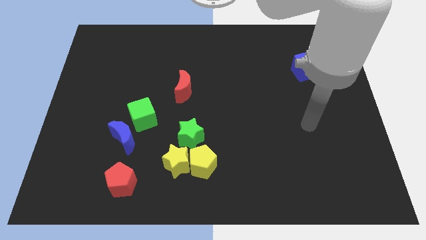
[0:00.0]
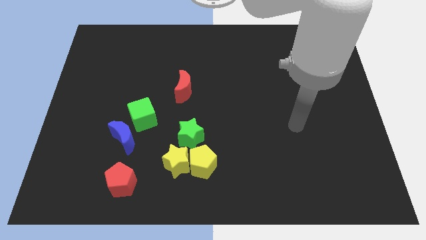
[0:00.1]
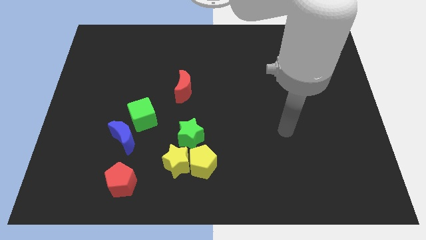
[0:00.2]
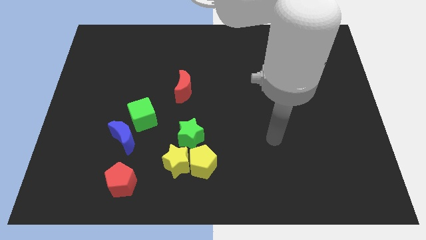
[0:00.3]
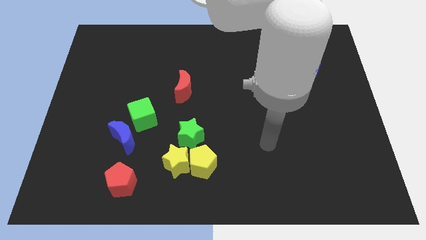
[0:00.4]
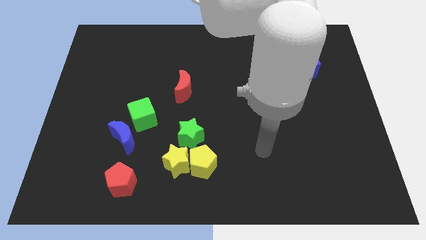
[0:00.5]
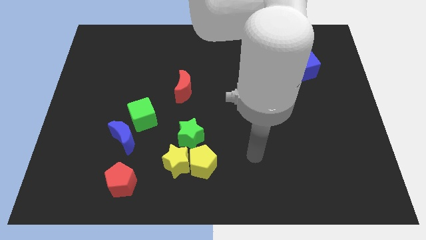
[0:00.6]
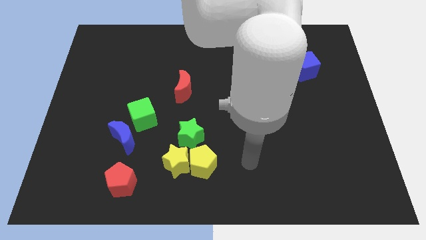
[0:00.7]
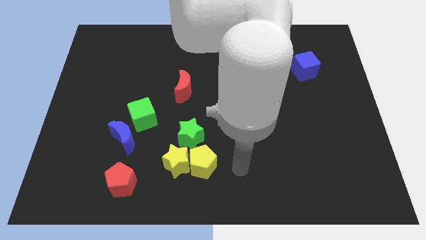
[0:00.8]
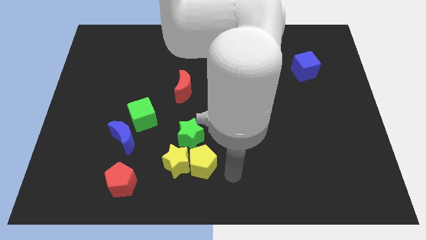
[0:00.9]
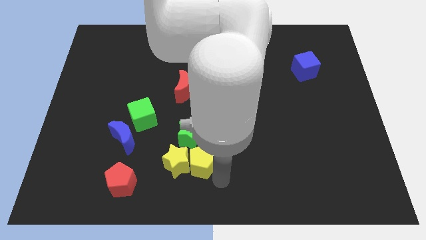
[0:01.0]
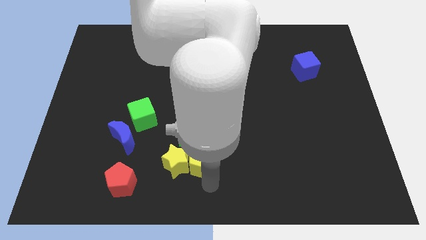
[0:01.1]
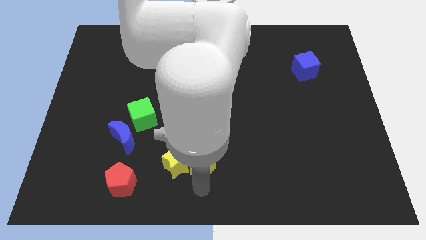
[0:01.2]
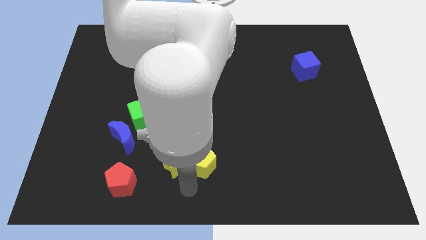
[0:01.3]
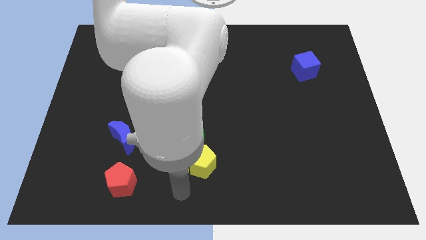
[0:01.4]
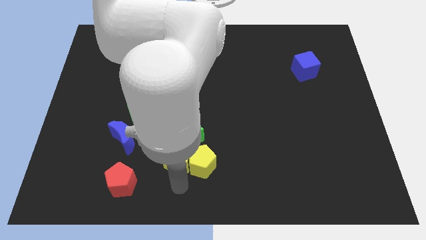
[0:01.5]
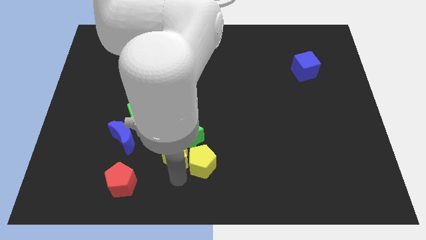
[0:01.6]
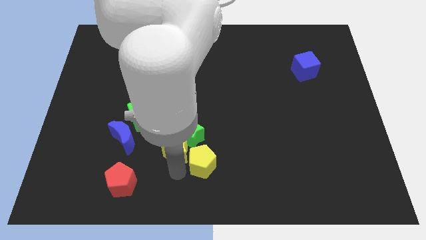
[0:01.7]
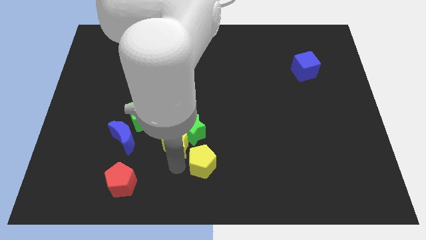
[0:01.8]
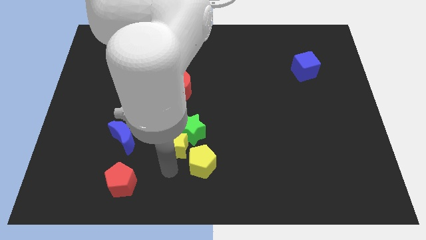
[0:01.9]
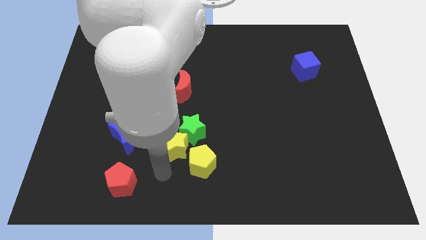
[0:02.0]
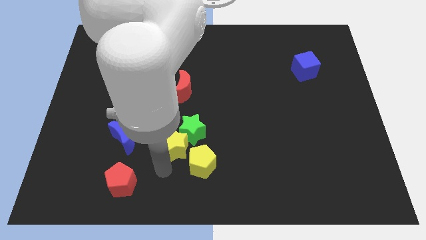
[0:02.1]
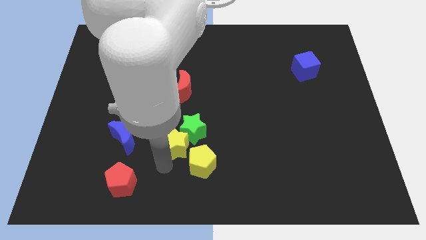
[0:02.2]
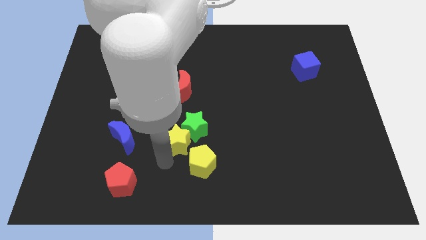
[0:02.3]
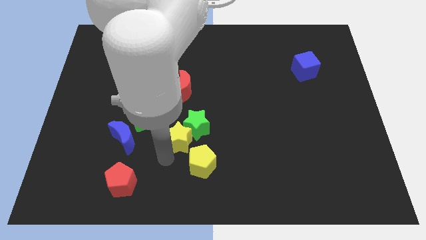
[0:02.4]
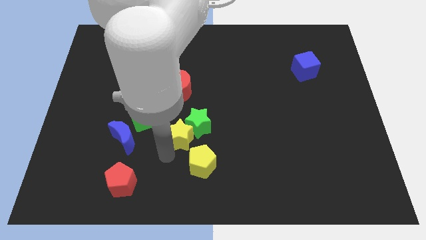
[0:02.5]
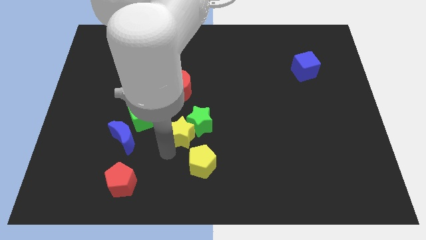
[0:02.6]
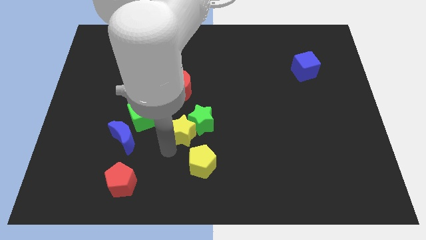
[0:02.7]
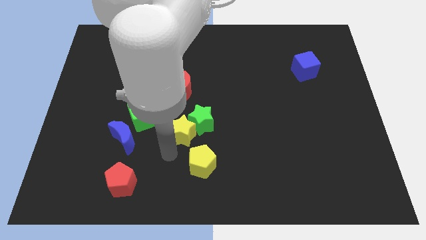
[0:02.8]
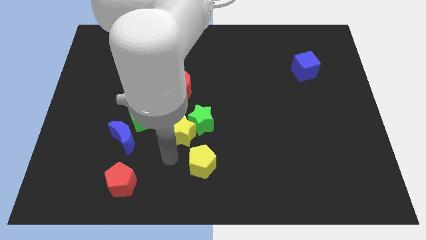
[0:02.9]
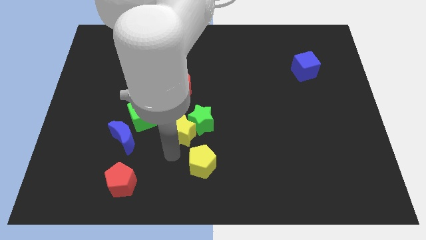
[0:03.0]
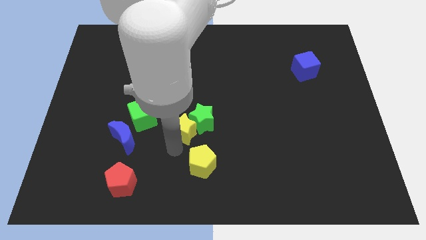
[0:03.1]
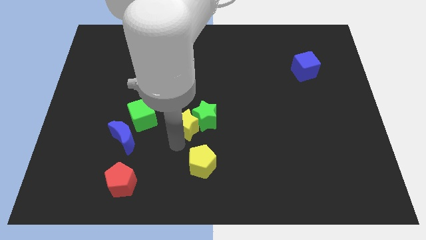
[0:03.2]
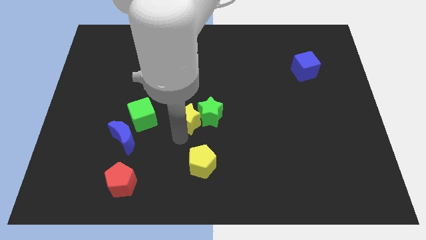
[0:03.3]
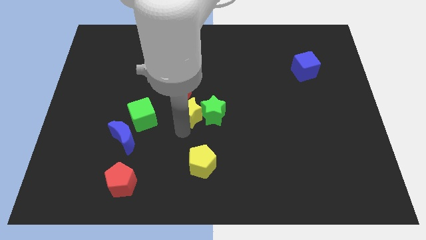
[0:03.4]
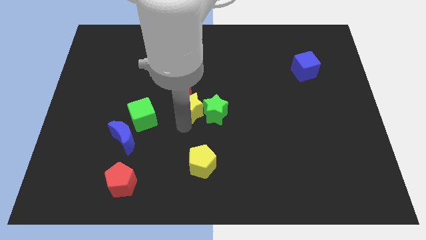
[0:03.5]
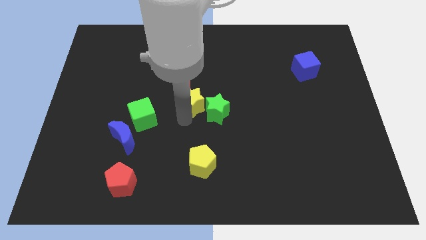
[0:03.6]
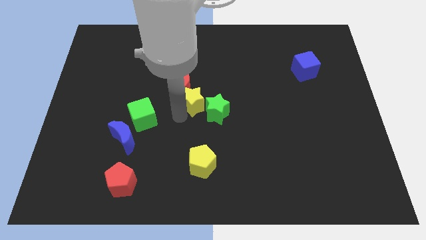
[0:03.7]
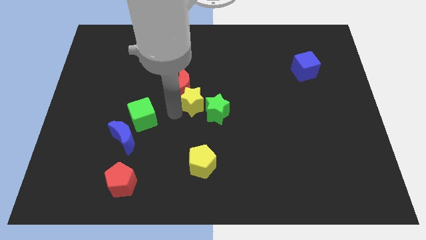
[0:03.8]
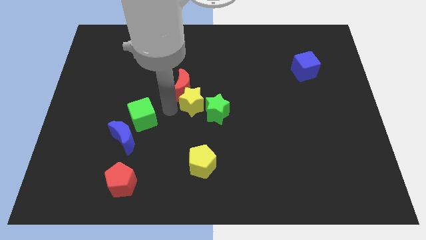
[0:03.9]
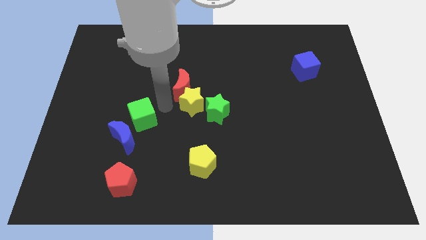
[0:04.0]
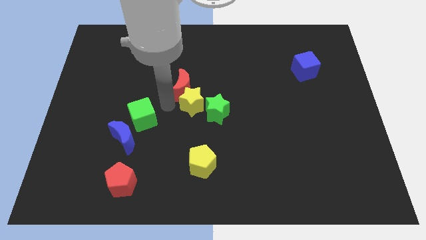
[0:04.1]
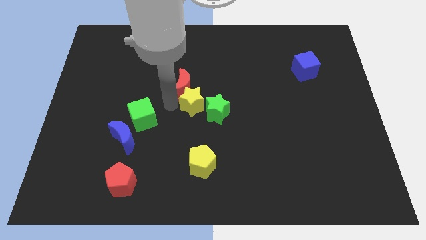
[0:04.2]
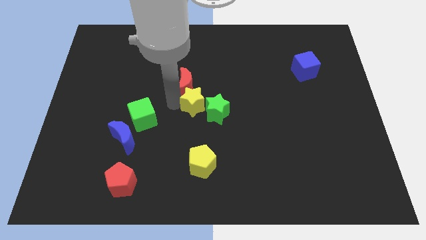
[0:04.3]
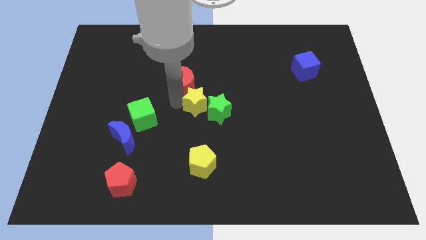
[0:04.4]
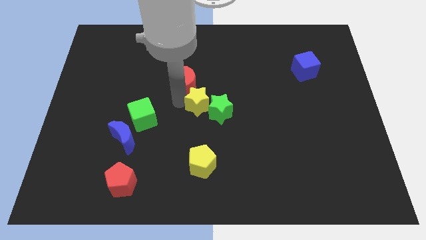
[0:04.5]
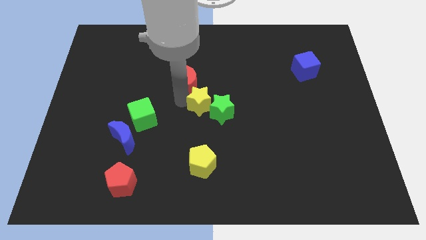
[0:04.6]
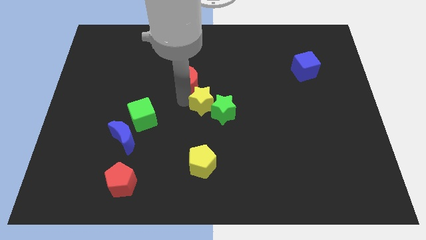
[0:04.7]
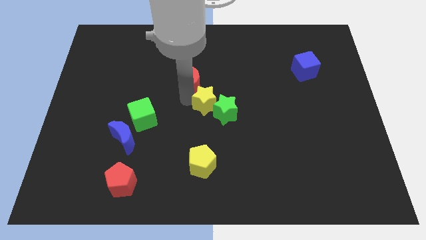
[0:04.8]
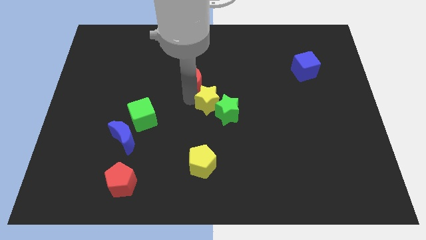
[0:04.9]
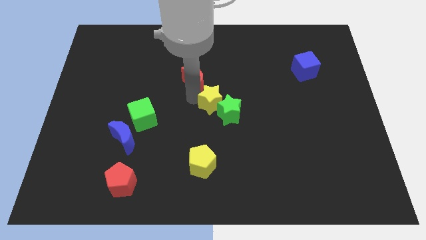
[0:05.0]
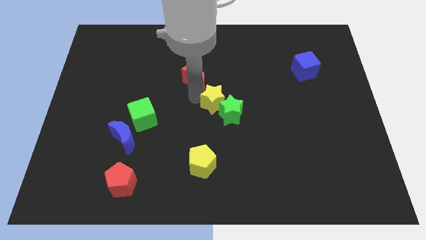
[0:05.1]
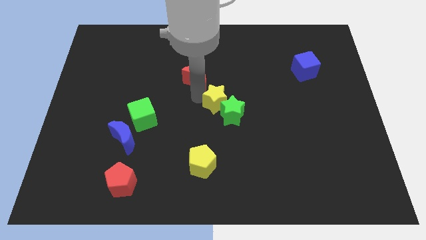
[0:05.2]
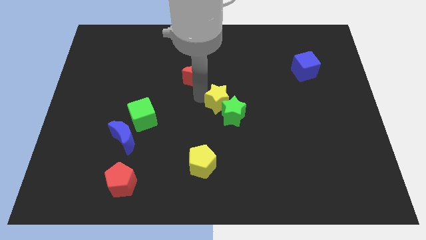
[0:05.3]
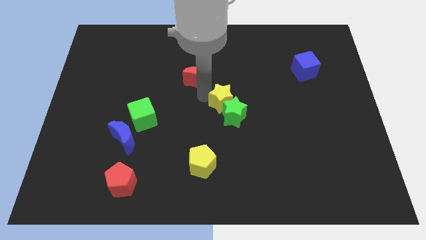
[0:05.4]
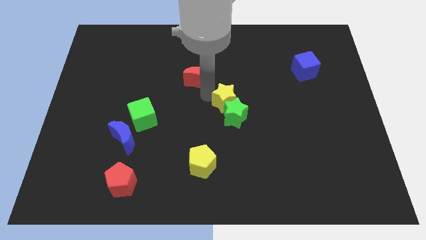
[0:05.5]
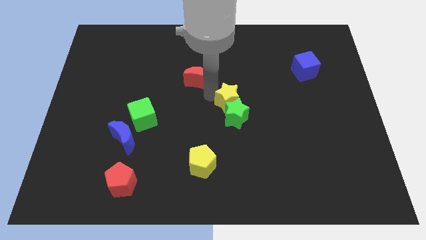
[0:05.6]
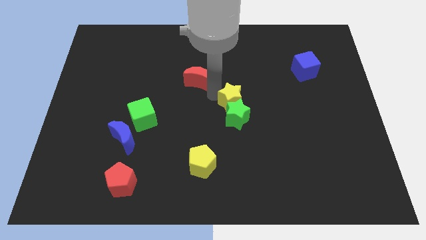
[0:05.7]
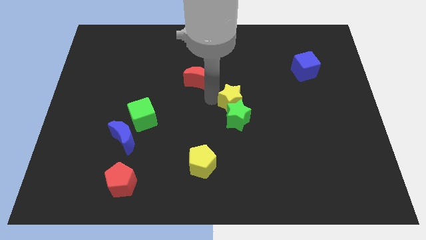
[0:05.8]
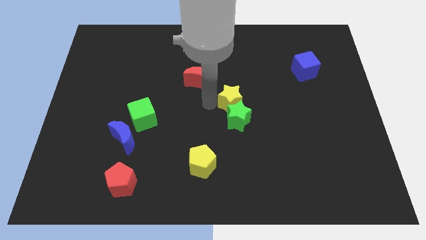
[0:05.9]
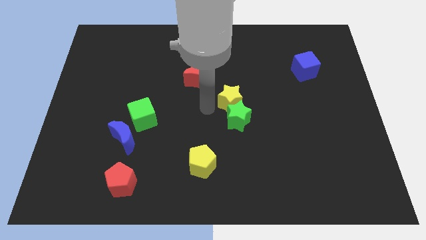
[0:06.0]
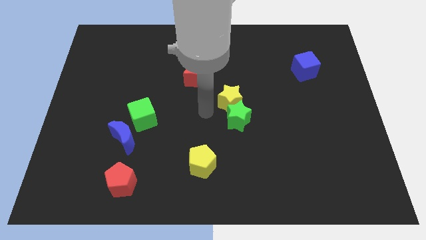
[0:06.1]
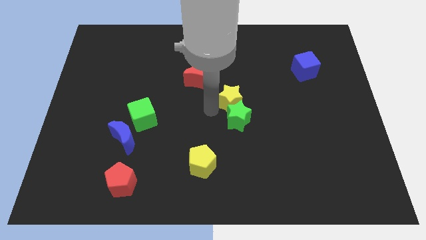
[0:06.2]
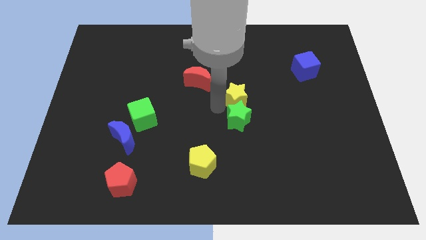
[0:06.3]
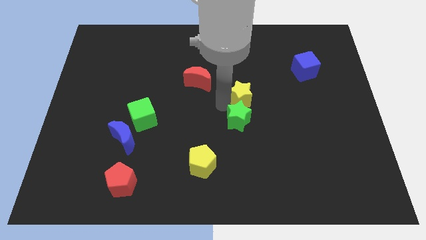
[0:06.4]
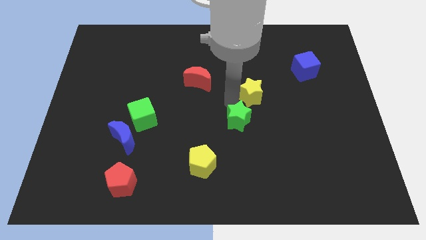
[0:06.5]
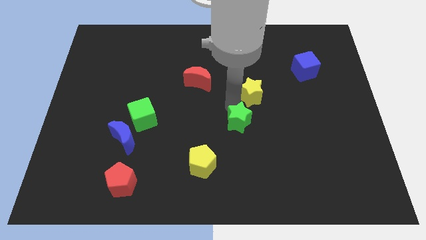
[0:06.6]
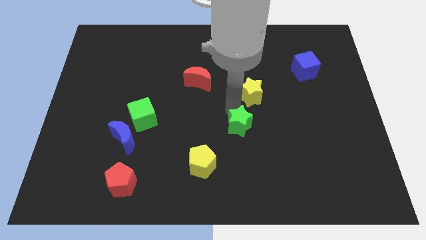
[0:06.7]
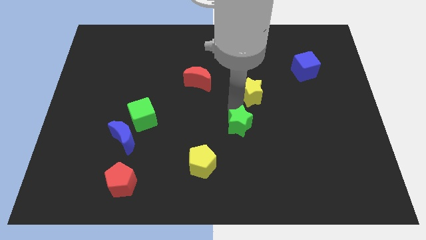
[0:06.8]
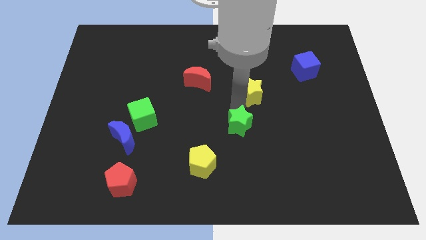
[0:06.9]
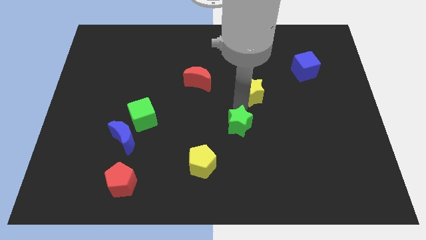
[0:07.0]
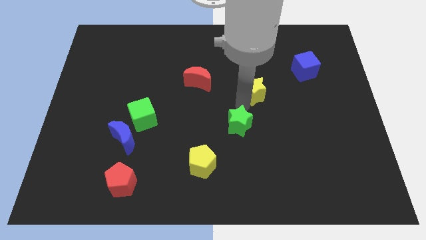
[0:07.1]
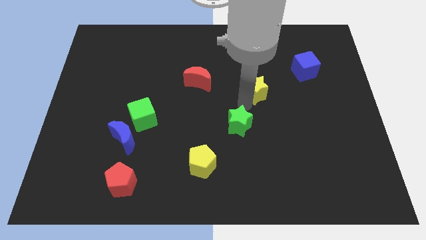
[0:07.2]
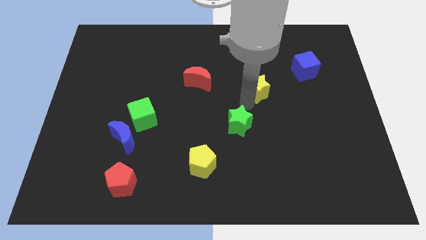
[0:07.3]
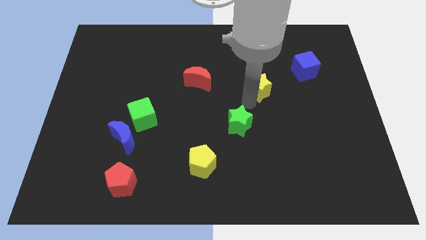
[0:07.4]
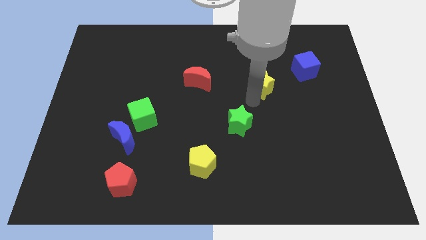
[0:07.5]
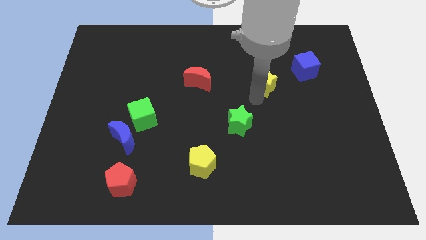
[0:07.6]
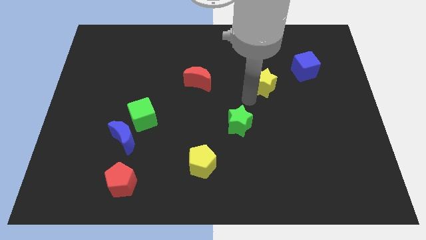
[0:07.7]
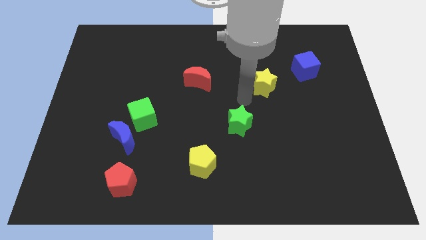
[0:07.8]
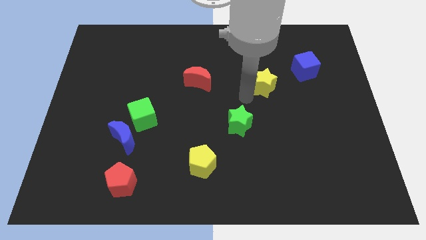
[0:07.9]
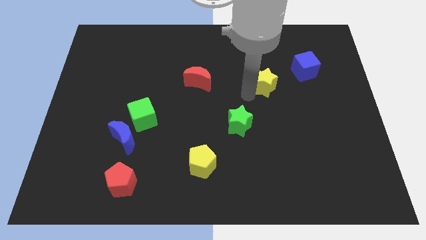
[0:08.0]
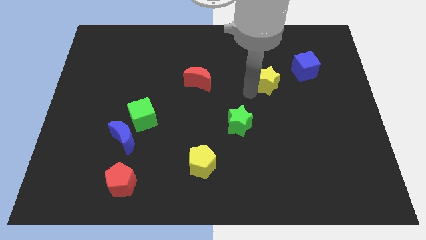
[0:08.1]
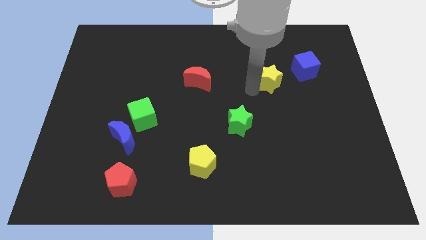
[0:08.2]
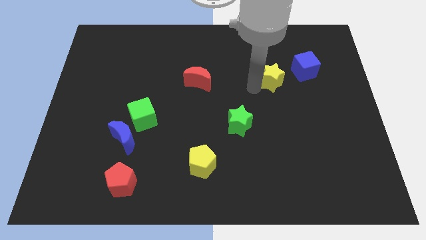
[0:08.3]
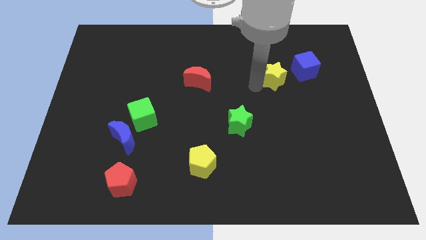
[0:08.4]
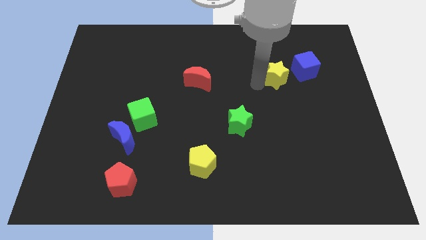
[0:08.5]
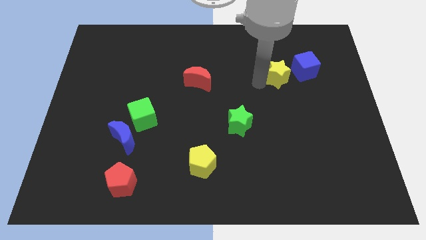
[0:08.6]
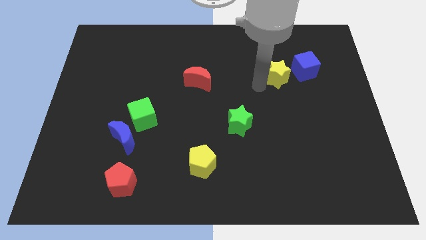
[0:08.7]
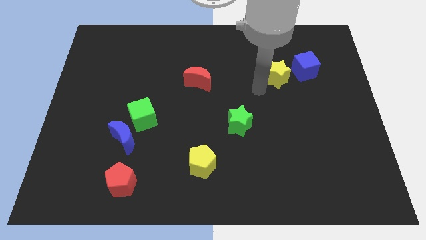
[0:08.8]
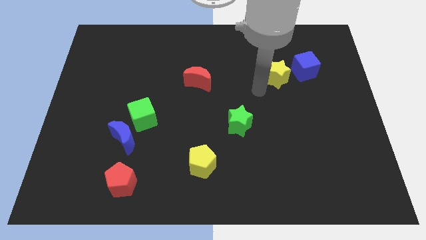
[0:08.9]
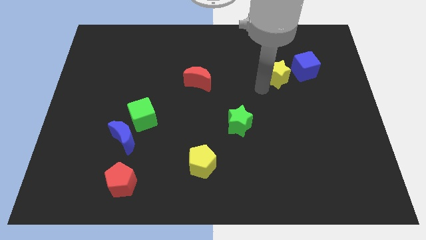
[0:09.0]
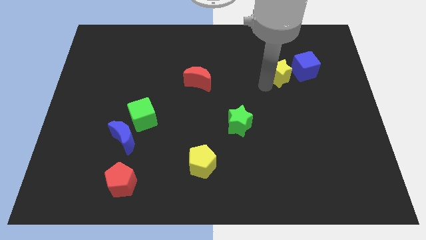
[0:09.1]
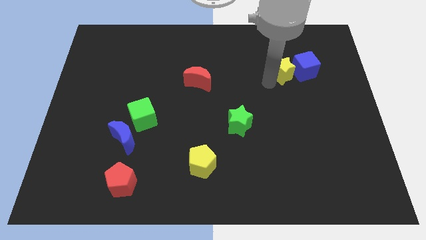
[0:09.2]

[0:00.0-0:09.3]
push the yellow star to the blue cube
